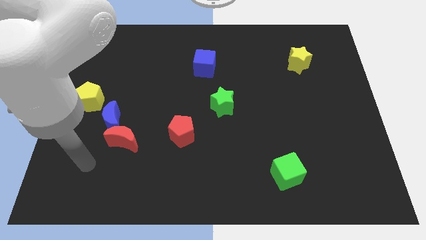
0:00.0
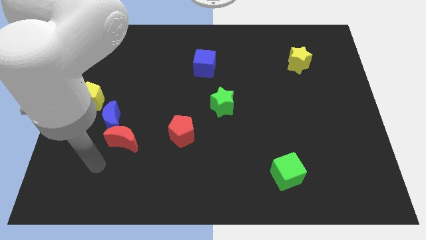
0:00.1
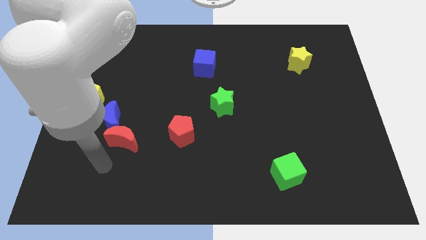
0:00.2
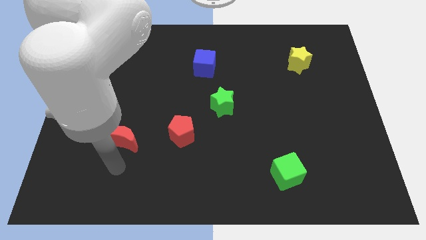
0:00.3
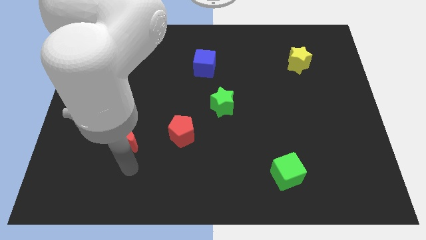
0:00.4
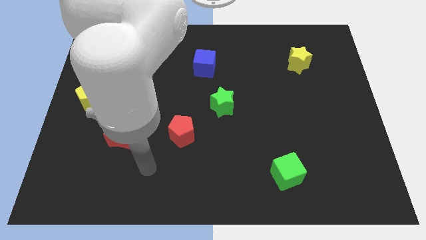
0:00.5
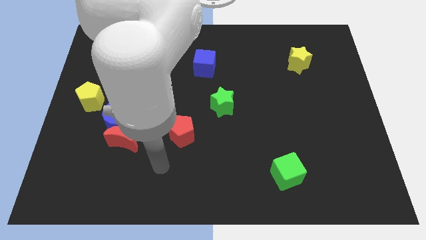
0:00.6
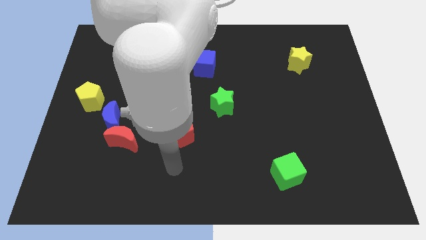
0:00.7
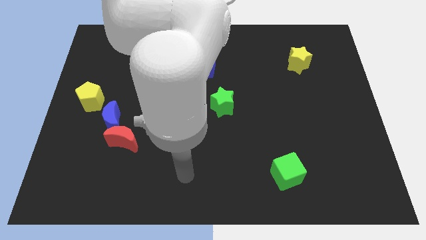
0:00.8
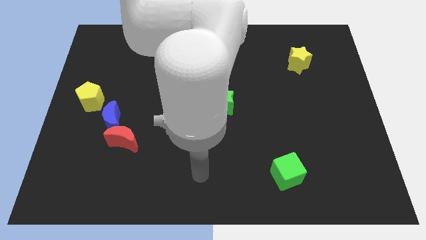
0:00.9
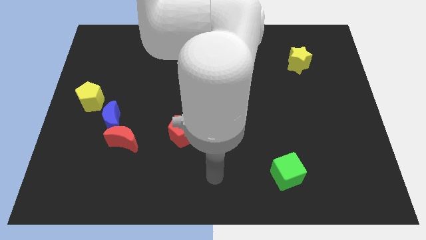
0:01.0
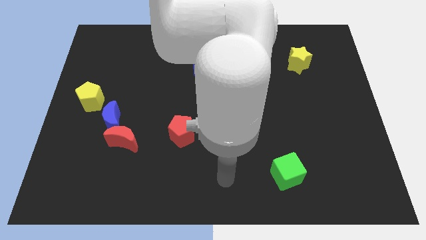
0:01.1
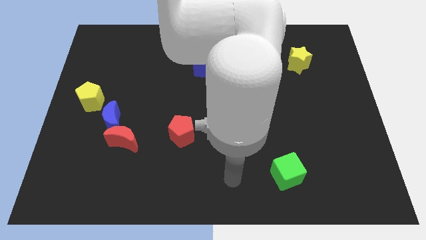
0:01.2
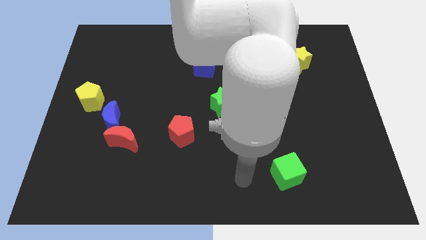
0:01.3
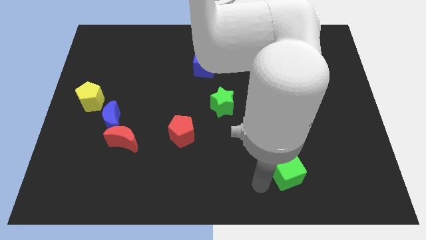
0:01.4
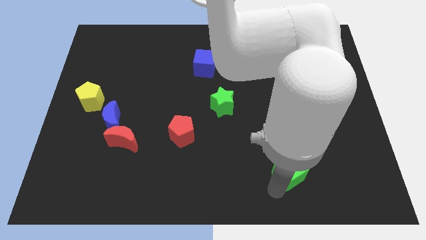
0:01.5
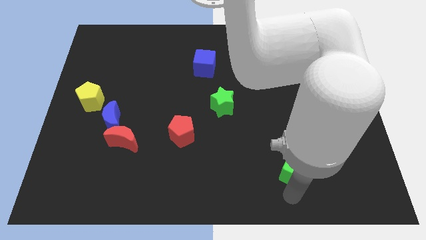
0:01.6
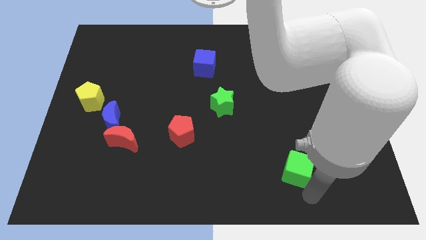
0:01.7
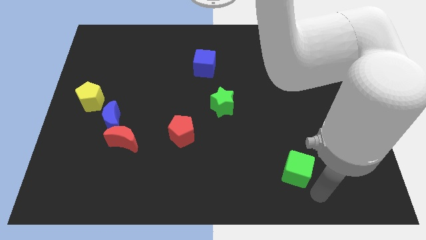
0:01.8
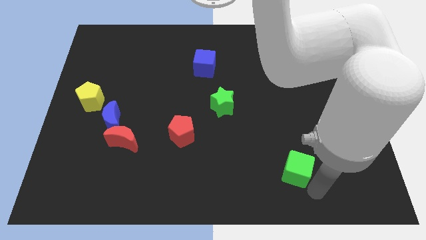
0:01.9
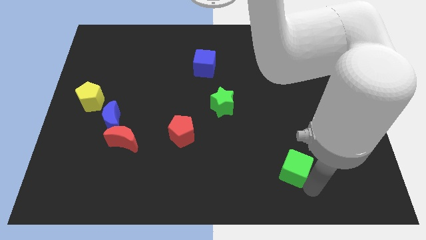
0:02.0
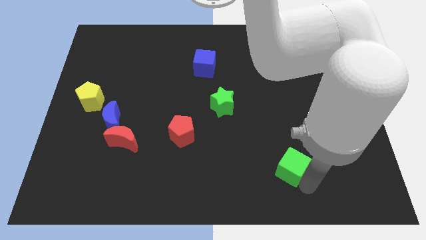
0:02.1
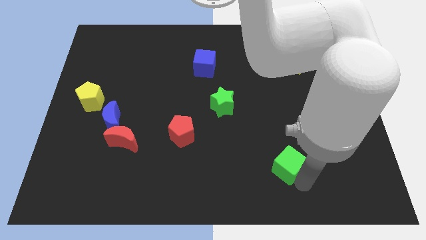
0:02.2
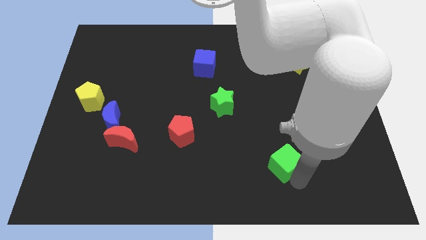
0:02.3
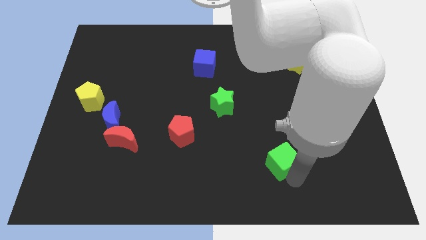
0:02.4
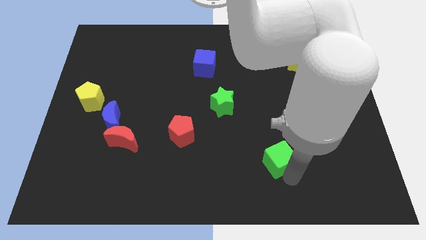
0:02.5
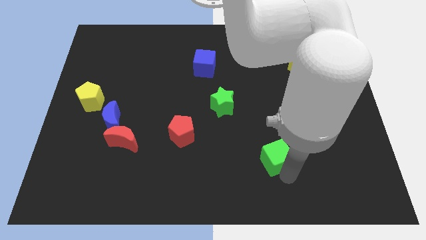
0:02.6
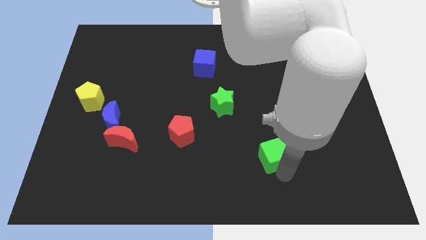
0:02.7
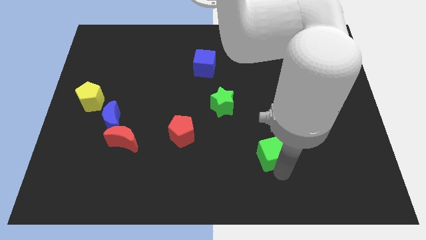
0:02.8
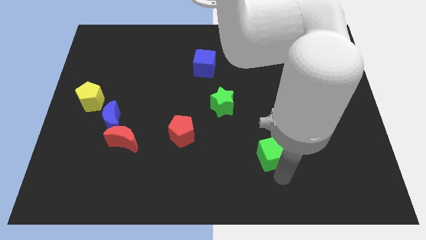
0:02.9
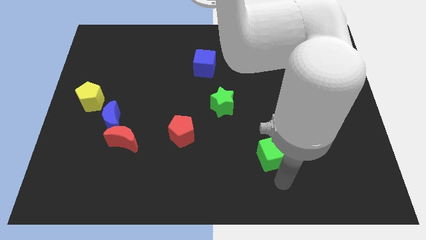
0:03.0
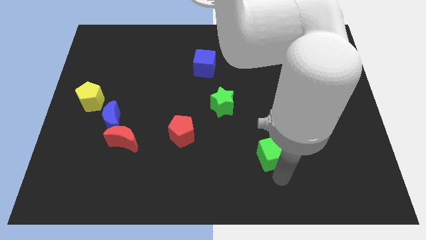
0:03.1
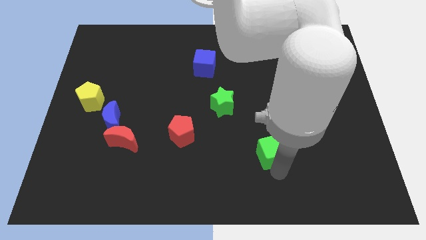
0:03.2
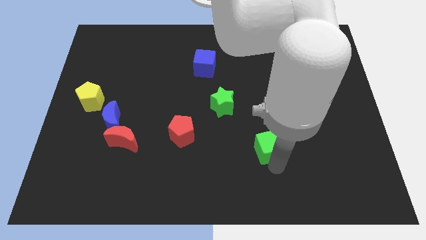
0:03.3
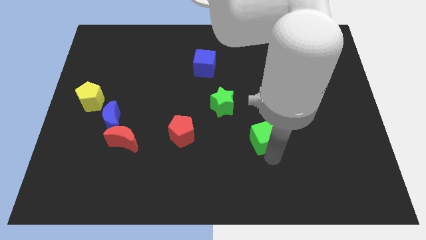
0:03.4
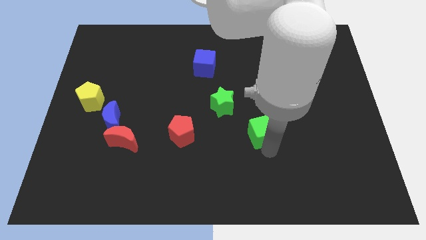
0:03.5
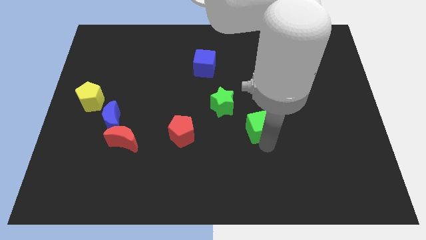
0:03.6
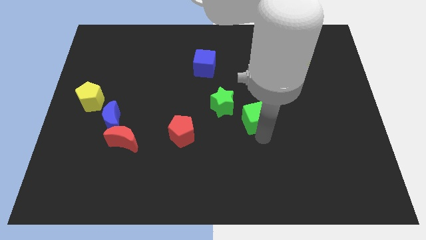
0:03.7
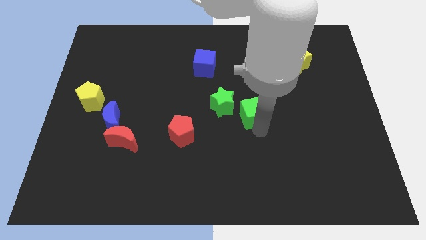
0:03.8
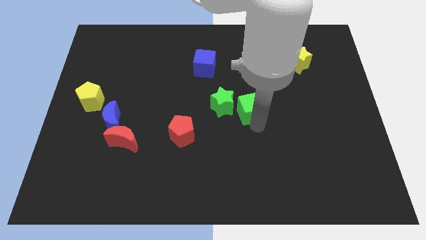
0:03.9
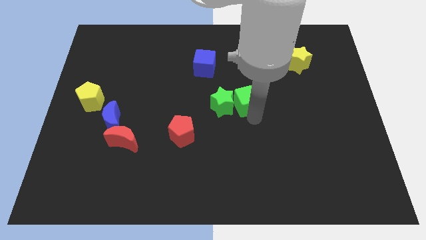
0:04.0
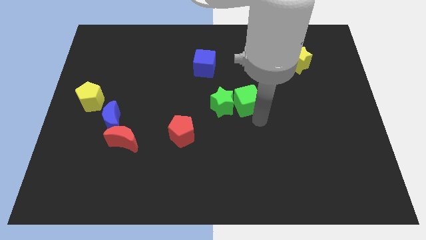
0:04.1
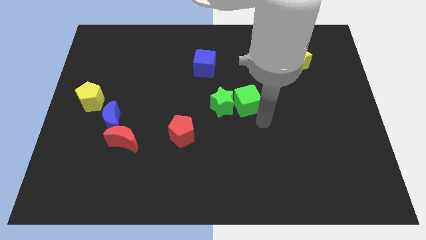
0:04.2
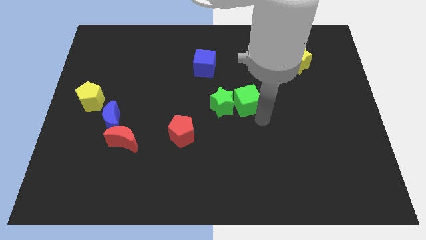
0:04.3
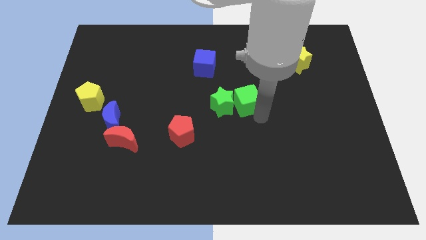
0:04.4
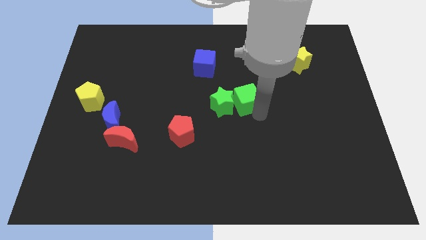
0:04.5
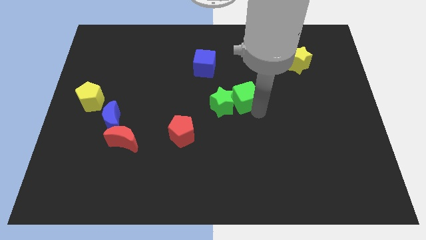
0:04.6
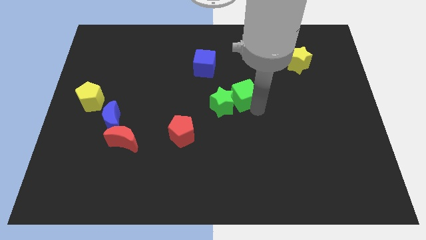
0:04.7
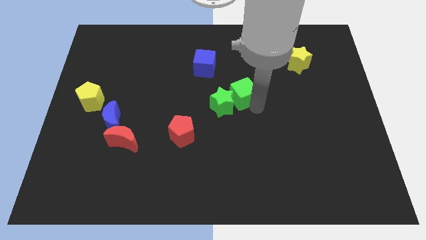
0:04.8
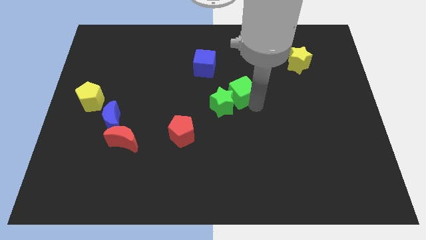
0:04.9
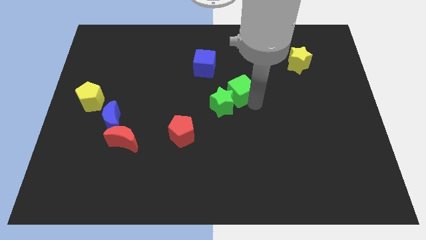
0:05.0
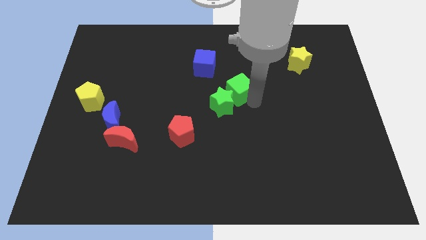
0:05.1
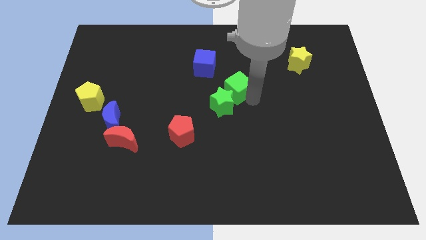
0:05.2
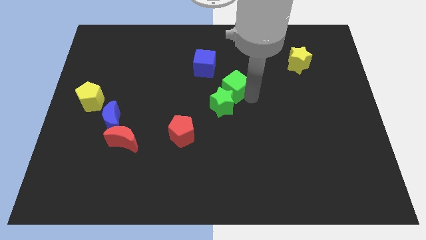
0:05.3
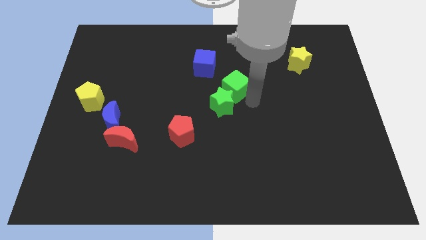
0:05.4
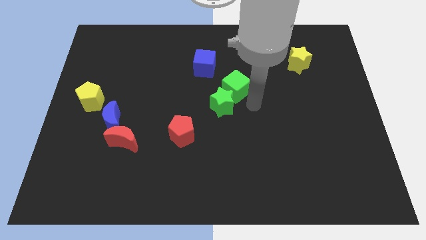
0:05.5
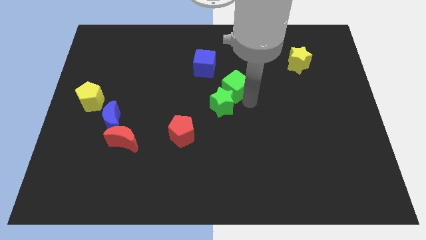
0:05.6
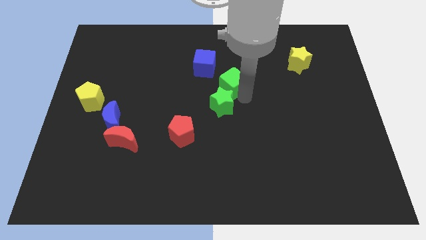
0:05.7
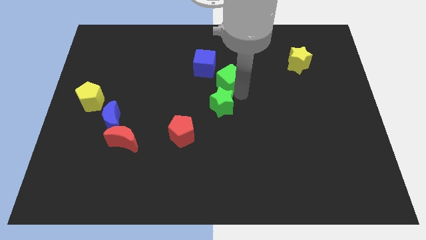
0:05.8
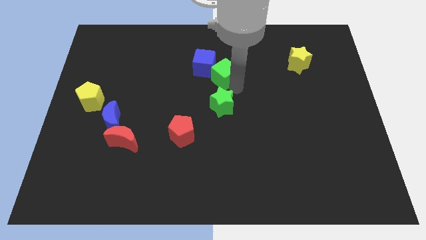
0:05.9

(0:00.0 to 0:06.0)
move the green cube close to the blue cube

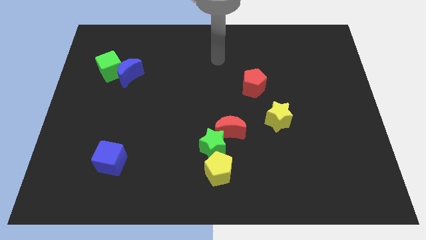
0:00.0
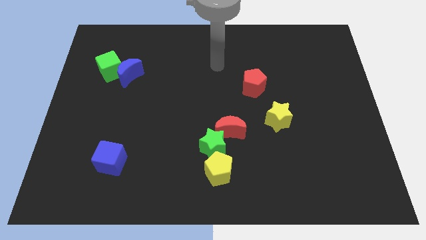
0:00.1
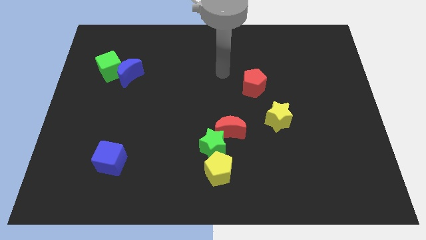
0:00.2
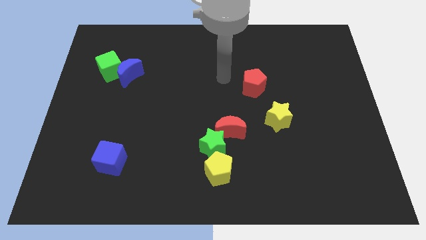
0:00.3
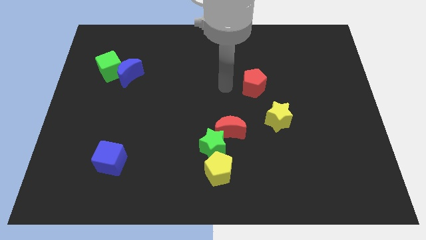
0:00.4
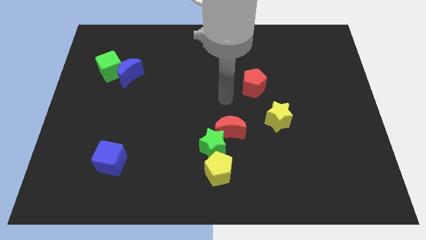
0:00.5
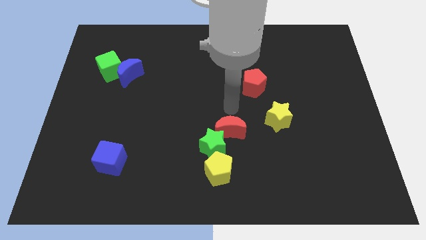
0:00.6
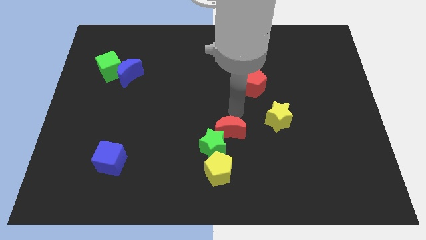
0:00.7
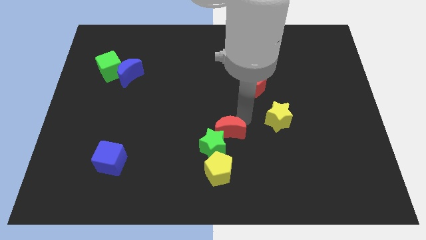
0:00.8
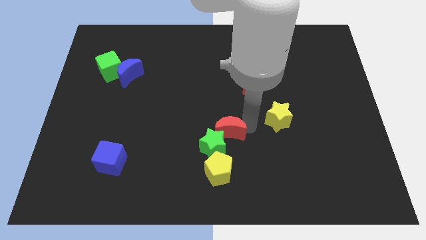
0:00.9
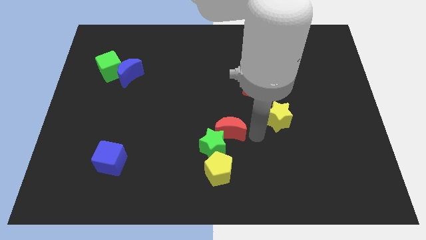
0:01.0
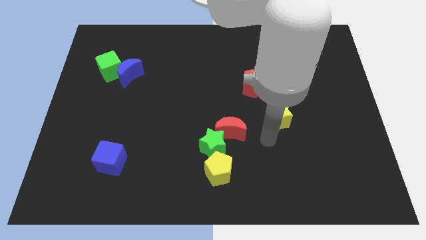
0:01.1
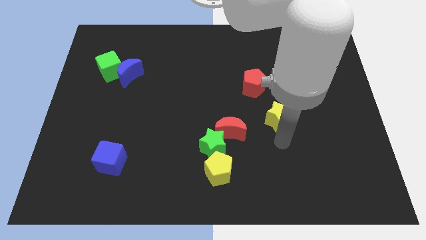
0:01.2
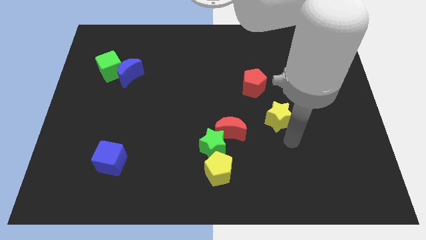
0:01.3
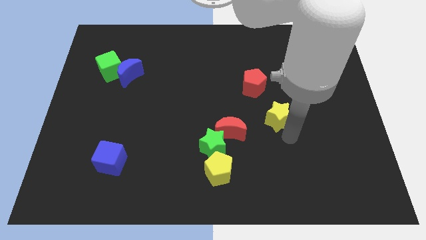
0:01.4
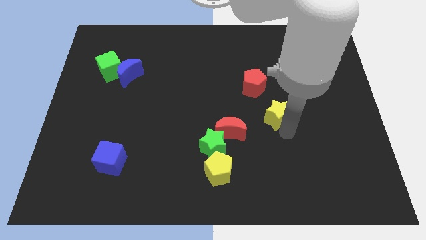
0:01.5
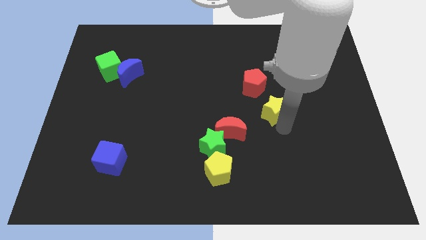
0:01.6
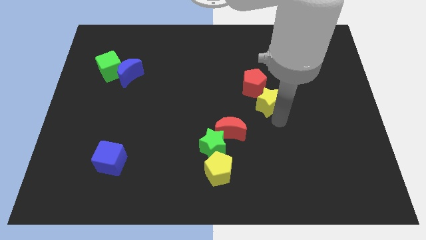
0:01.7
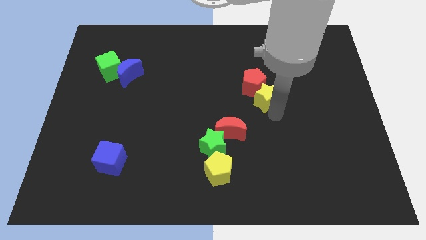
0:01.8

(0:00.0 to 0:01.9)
put the yellow star next to the red pentagon
